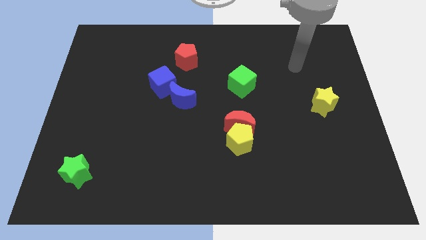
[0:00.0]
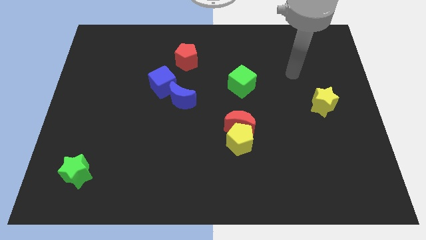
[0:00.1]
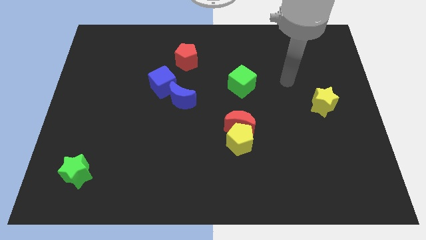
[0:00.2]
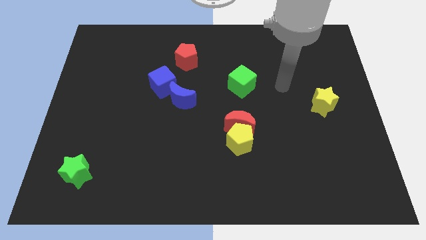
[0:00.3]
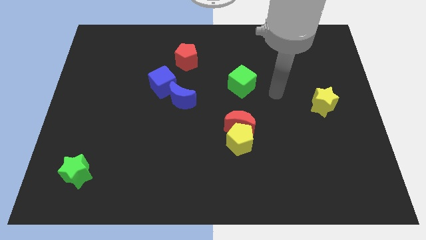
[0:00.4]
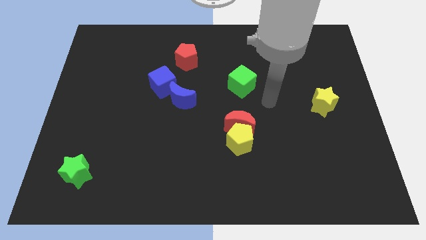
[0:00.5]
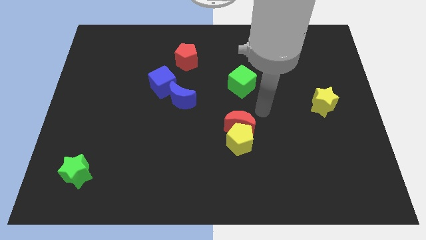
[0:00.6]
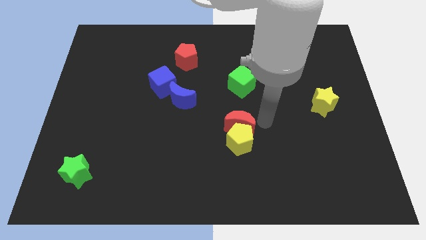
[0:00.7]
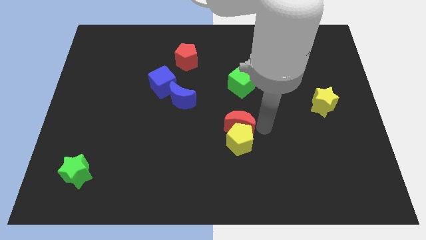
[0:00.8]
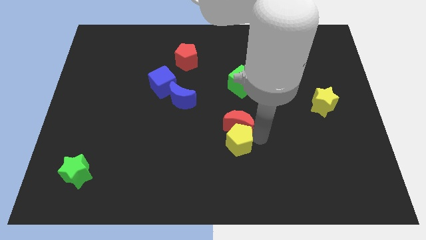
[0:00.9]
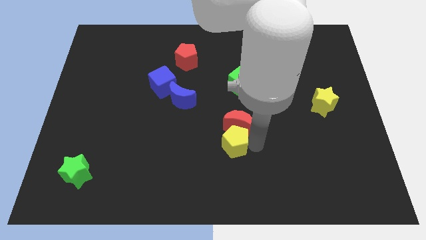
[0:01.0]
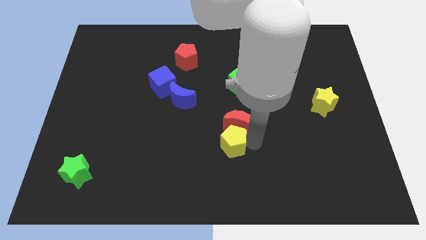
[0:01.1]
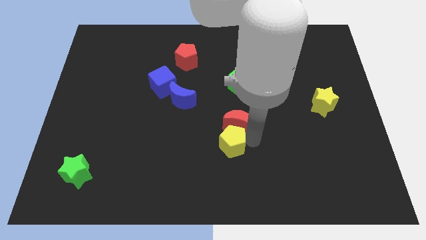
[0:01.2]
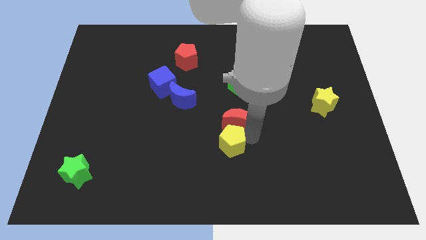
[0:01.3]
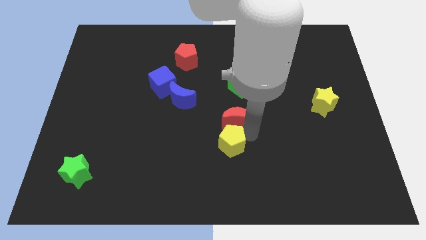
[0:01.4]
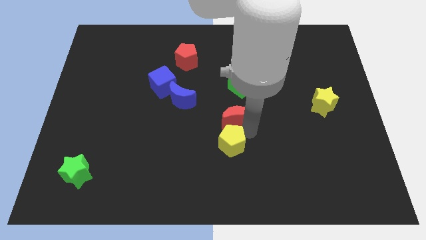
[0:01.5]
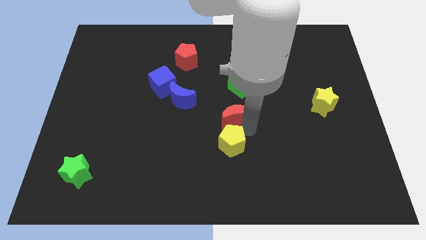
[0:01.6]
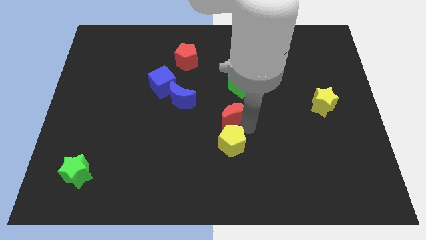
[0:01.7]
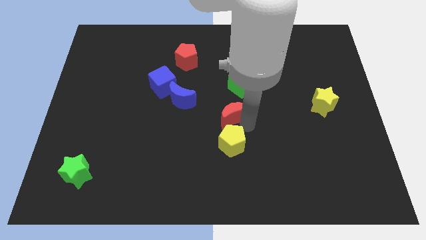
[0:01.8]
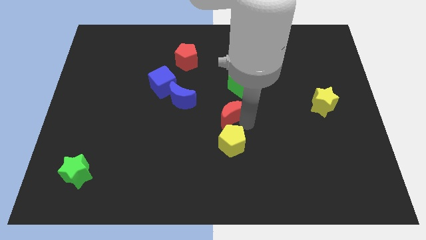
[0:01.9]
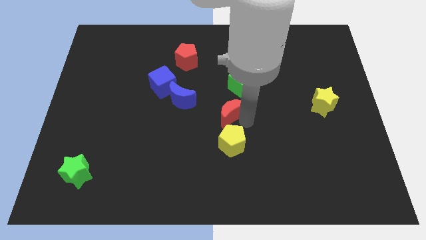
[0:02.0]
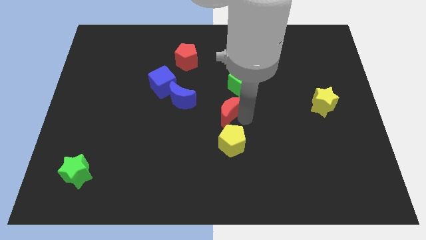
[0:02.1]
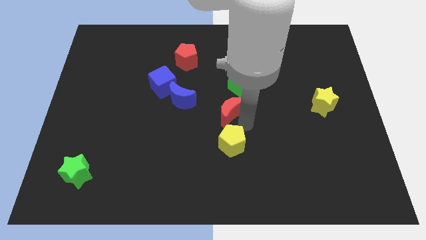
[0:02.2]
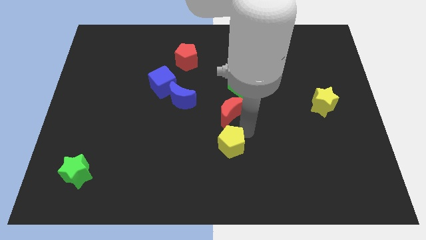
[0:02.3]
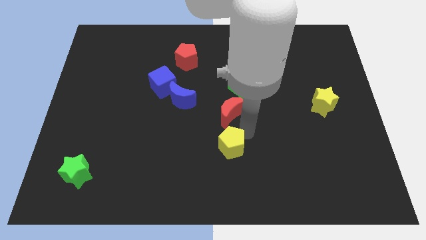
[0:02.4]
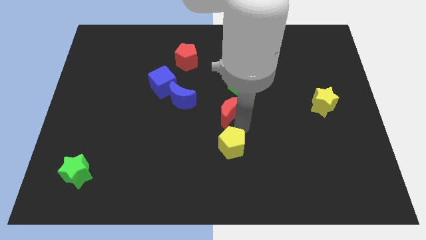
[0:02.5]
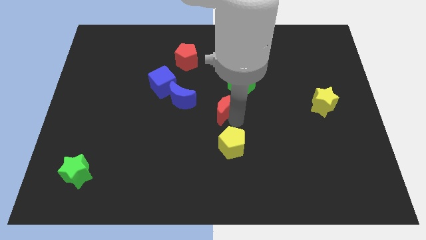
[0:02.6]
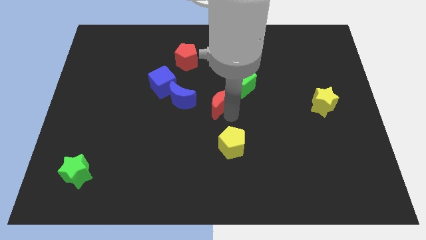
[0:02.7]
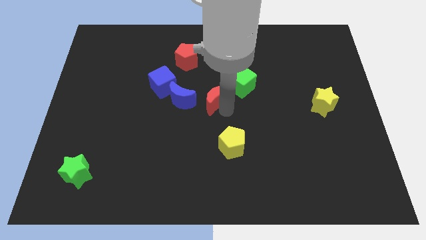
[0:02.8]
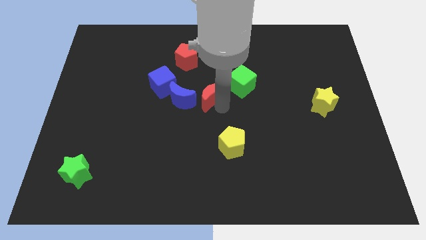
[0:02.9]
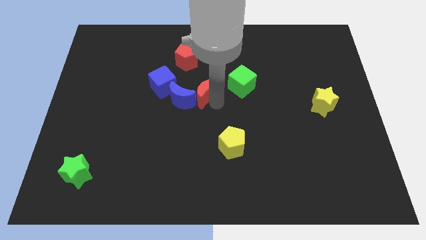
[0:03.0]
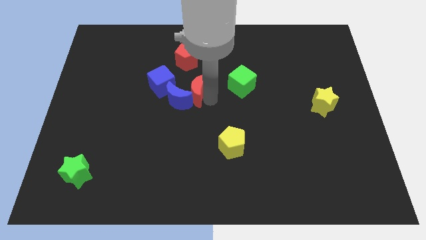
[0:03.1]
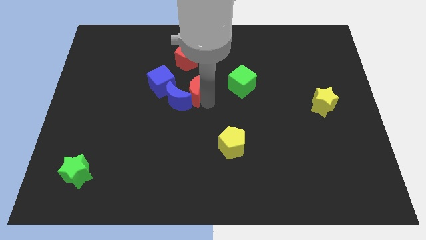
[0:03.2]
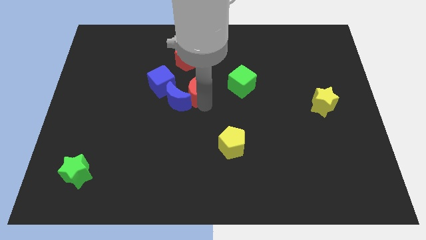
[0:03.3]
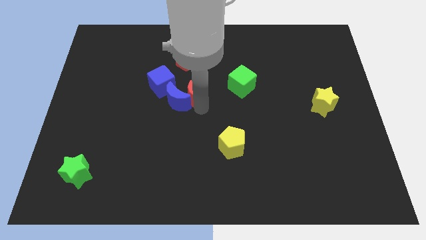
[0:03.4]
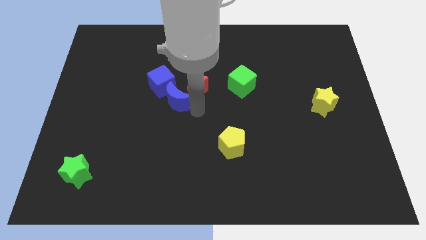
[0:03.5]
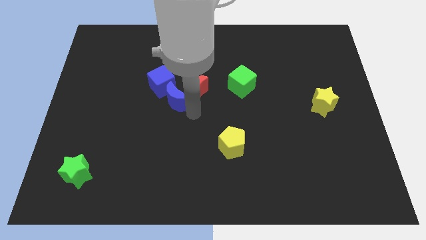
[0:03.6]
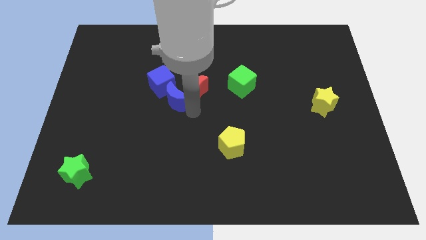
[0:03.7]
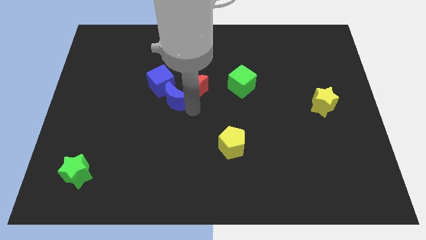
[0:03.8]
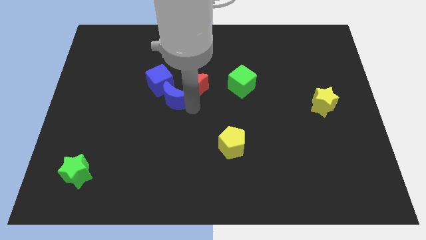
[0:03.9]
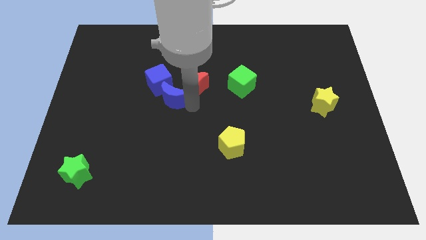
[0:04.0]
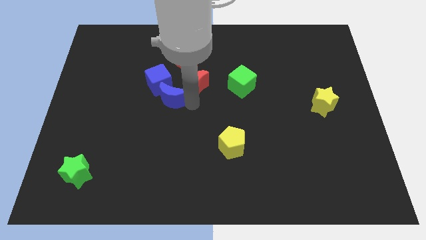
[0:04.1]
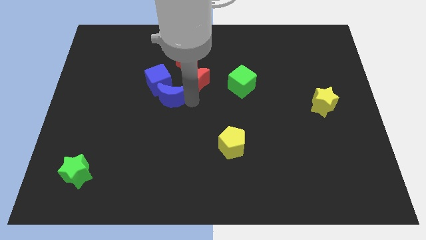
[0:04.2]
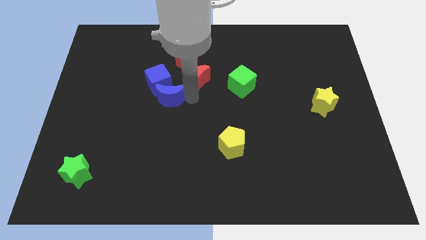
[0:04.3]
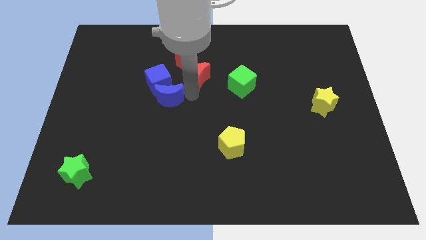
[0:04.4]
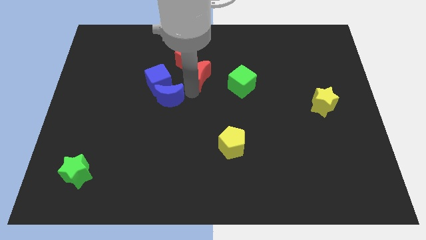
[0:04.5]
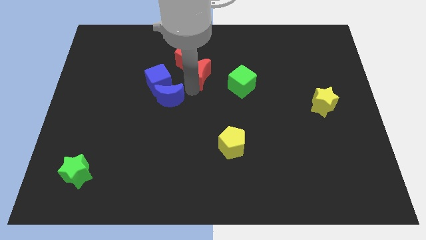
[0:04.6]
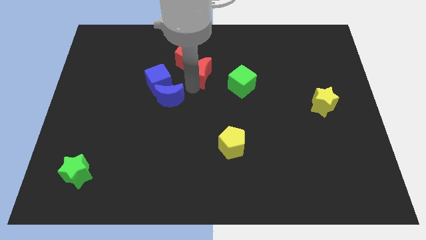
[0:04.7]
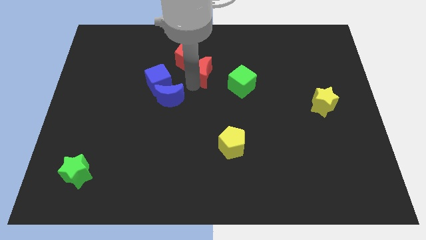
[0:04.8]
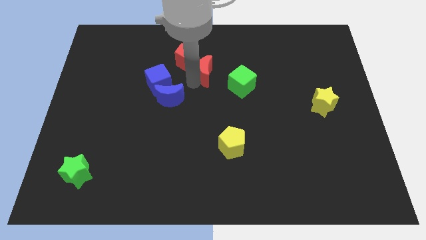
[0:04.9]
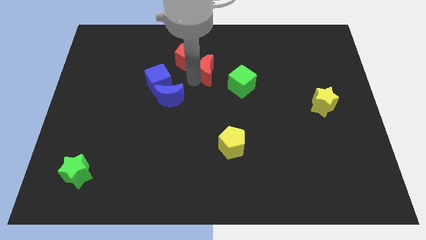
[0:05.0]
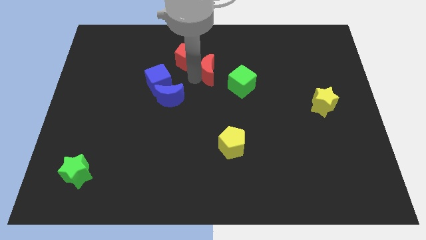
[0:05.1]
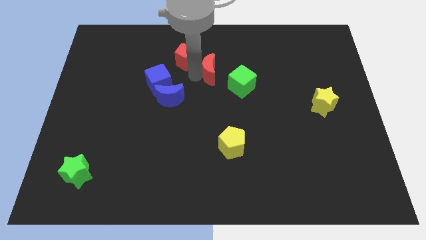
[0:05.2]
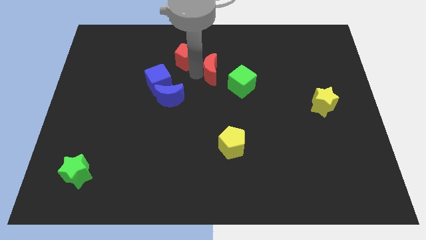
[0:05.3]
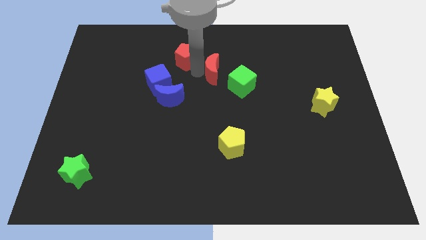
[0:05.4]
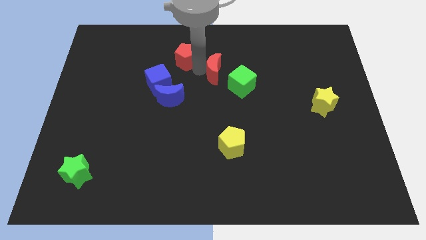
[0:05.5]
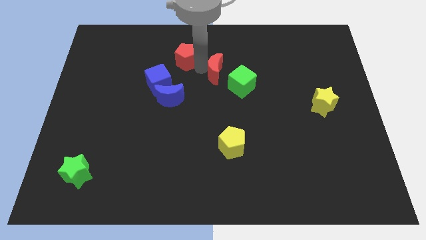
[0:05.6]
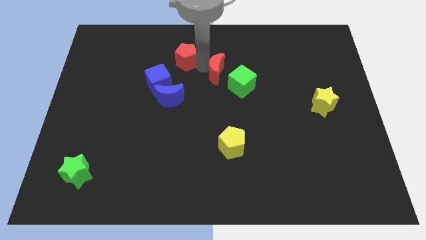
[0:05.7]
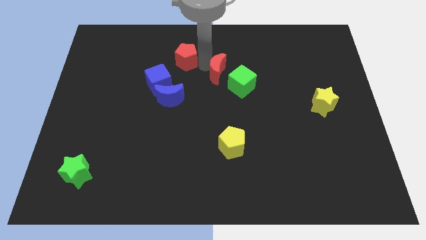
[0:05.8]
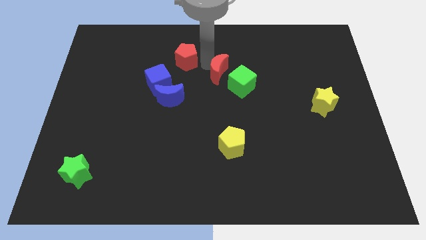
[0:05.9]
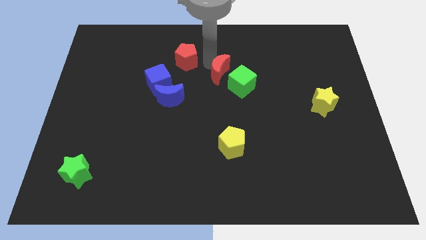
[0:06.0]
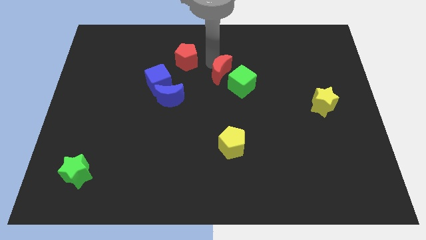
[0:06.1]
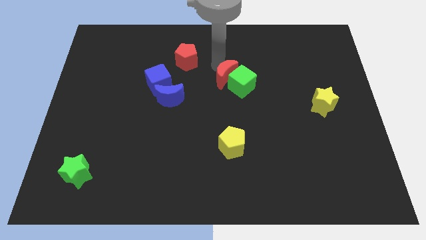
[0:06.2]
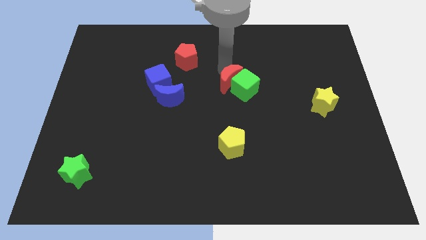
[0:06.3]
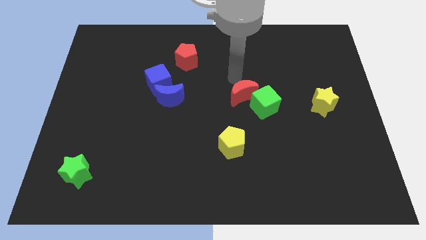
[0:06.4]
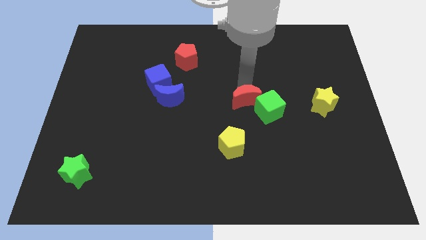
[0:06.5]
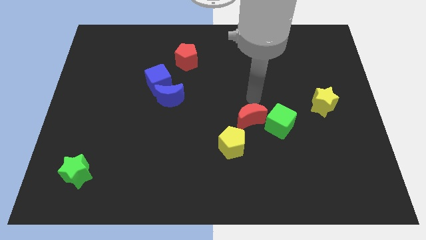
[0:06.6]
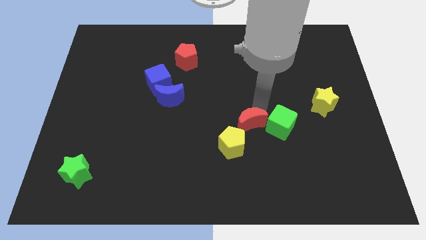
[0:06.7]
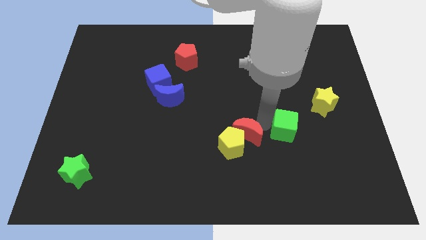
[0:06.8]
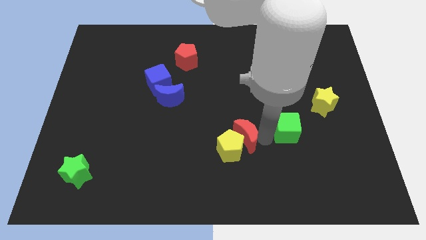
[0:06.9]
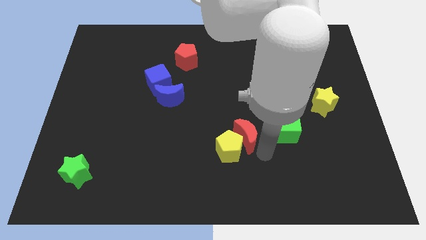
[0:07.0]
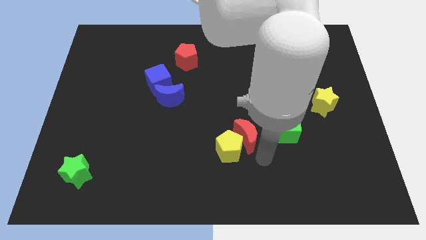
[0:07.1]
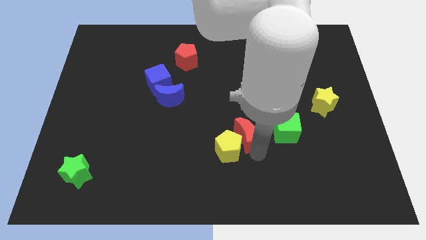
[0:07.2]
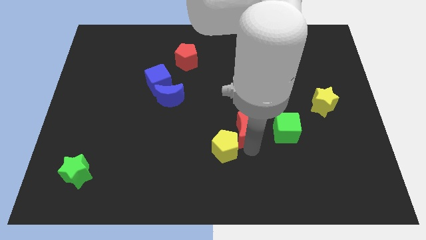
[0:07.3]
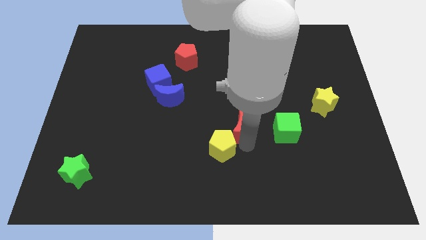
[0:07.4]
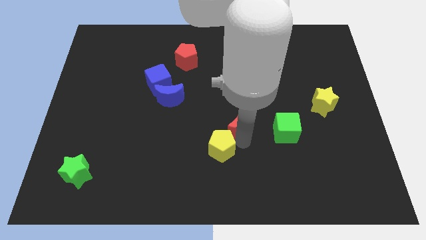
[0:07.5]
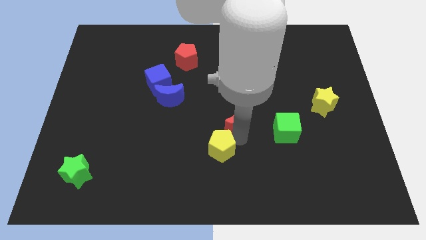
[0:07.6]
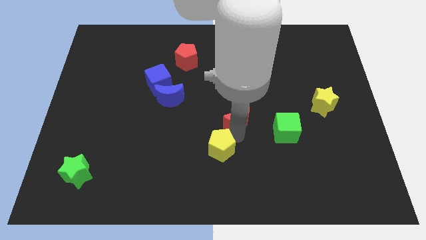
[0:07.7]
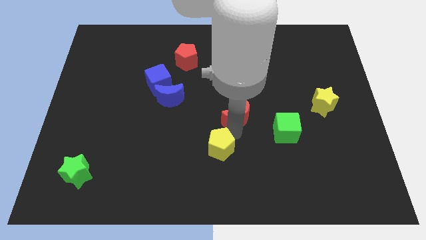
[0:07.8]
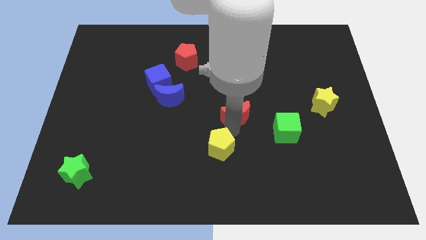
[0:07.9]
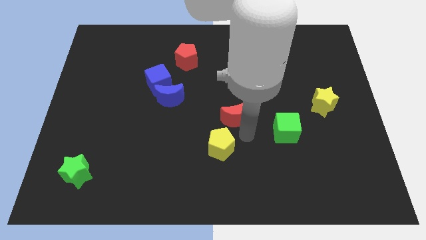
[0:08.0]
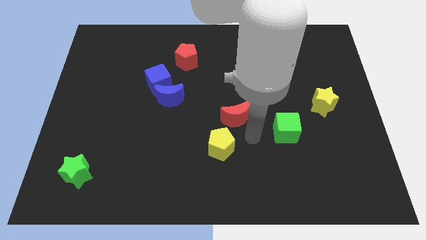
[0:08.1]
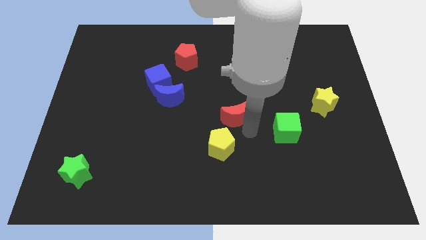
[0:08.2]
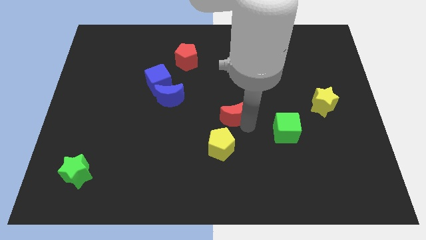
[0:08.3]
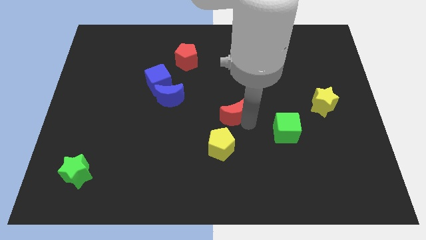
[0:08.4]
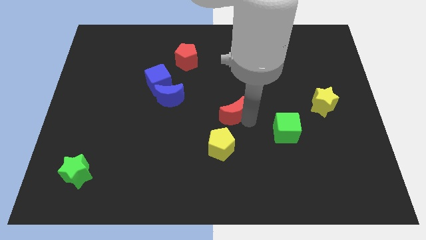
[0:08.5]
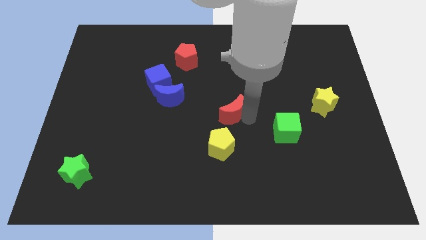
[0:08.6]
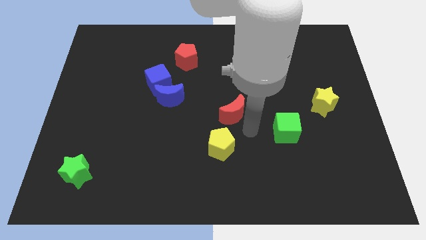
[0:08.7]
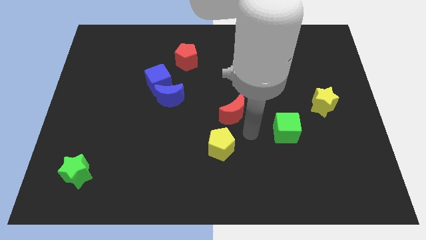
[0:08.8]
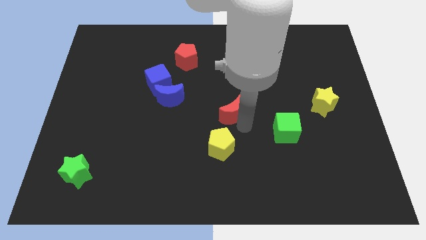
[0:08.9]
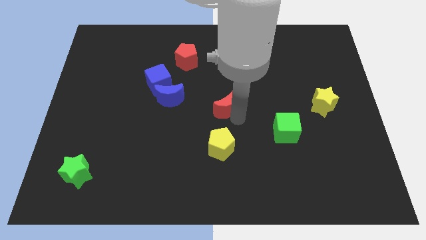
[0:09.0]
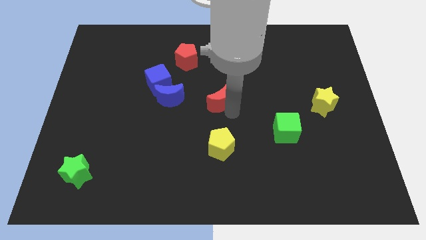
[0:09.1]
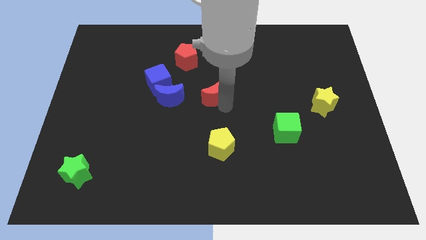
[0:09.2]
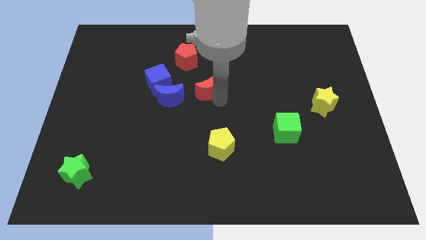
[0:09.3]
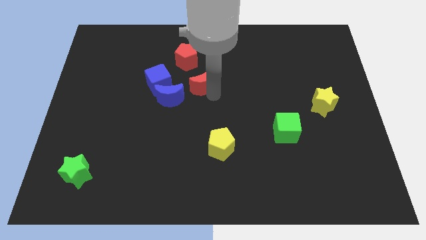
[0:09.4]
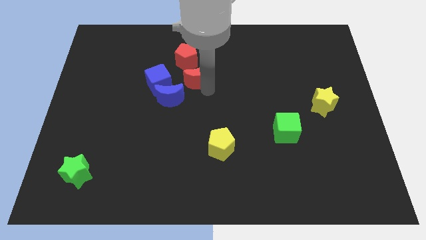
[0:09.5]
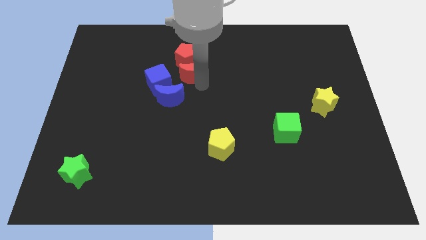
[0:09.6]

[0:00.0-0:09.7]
move the red moon next to the red pentagon
